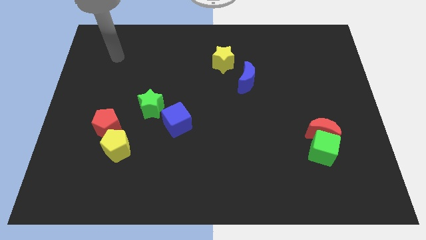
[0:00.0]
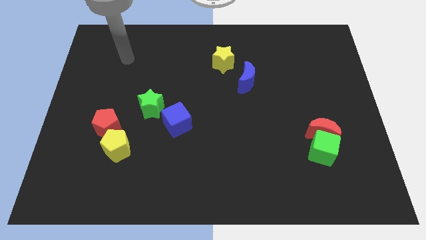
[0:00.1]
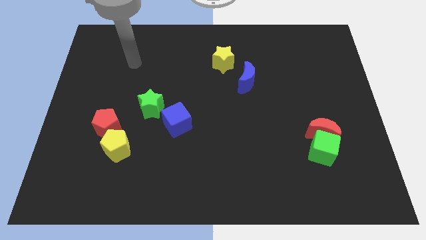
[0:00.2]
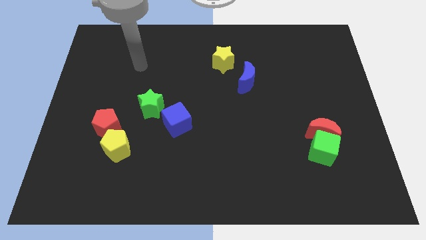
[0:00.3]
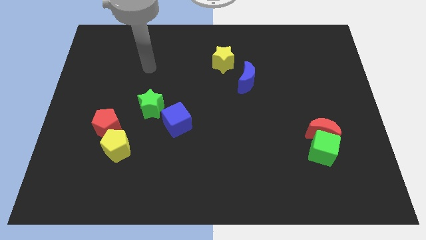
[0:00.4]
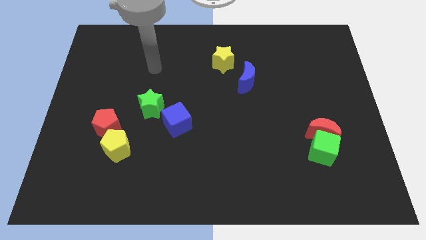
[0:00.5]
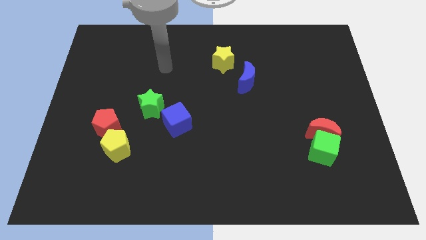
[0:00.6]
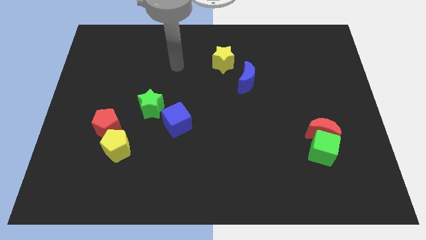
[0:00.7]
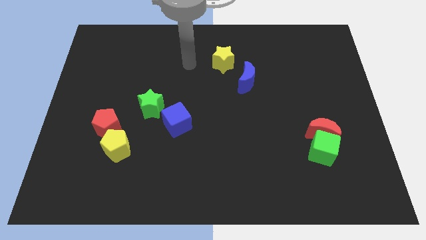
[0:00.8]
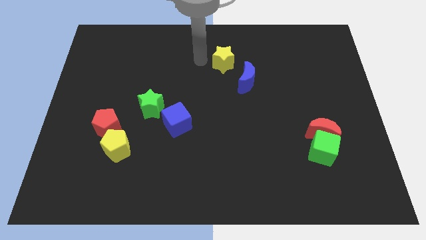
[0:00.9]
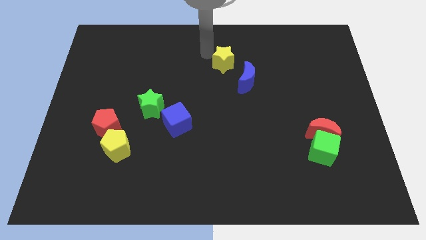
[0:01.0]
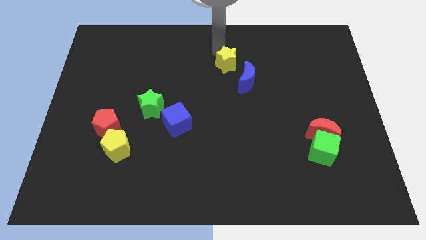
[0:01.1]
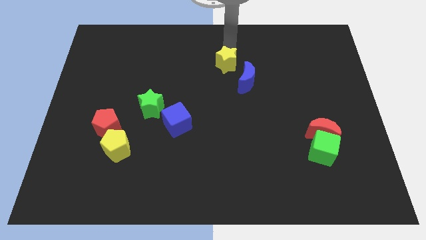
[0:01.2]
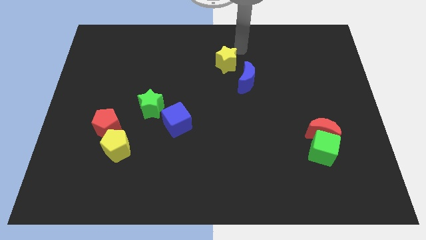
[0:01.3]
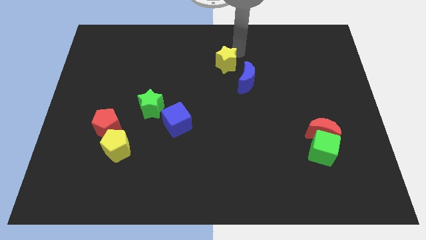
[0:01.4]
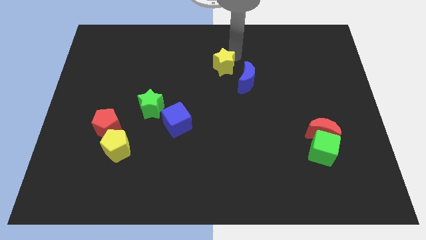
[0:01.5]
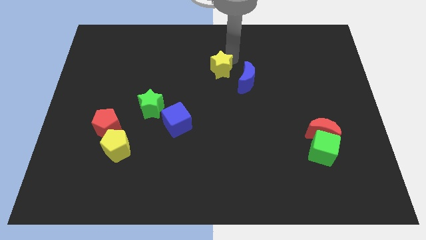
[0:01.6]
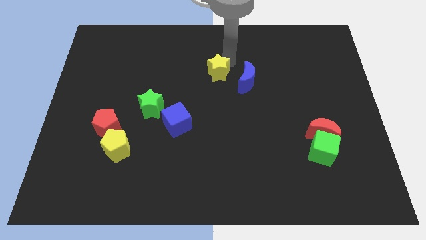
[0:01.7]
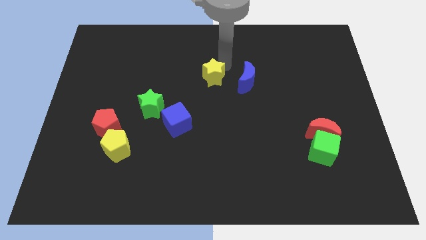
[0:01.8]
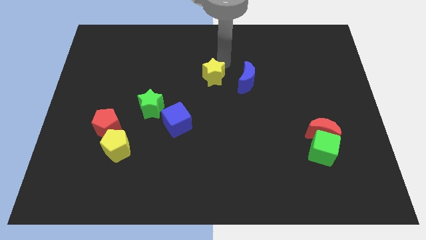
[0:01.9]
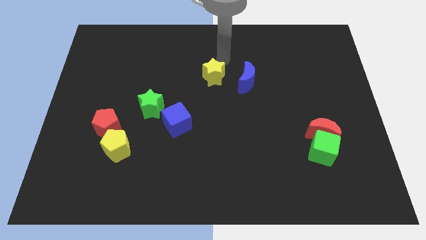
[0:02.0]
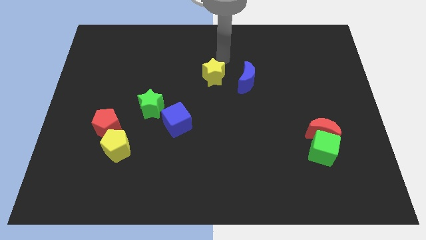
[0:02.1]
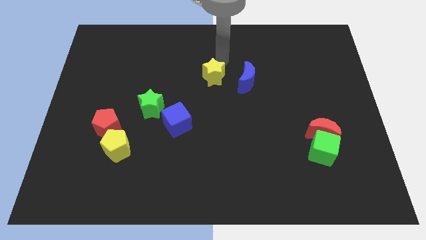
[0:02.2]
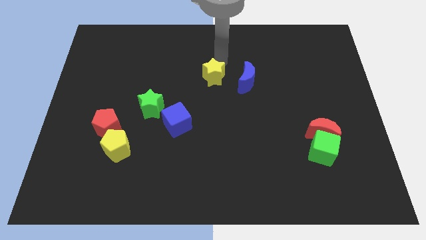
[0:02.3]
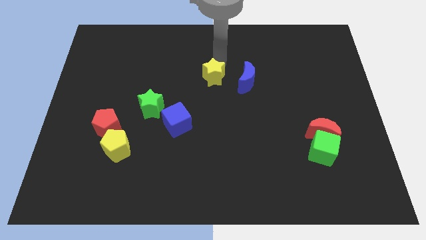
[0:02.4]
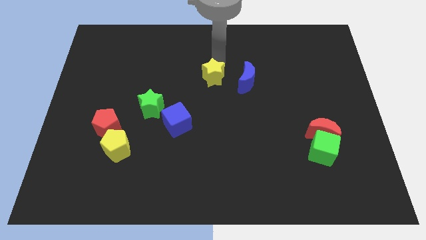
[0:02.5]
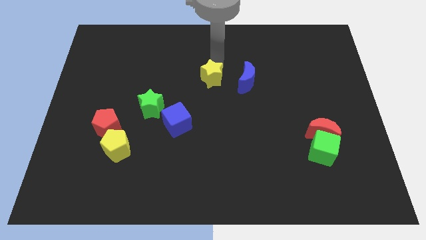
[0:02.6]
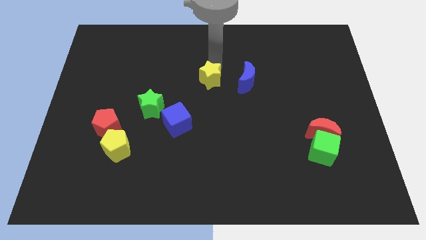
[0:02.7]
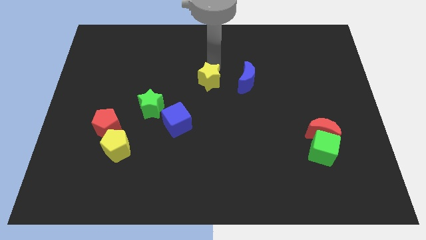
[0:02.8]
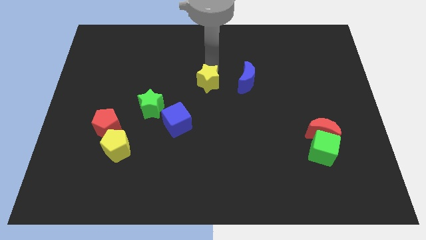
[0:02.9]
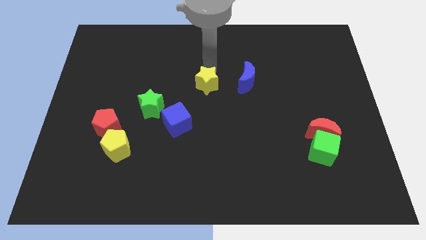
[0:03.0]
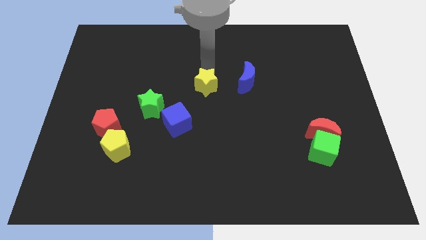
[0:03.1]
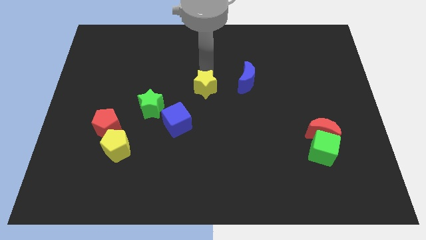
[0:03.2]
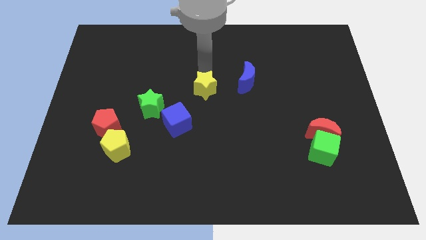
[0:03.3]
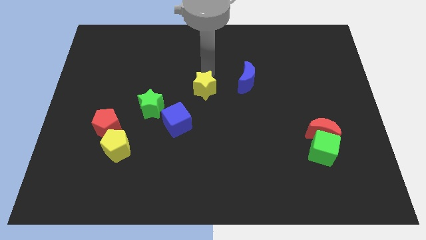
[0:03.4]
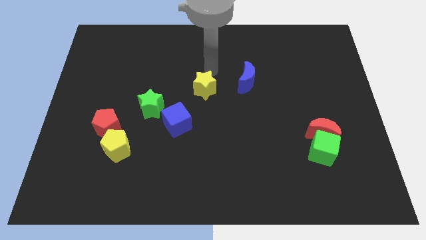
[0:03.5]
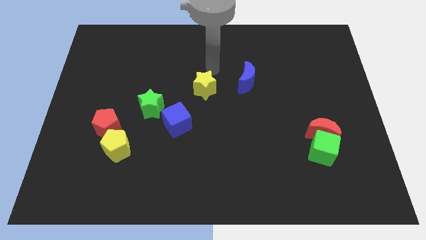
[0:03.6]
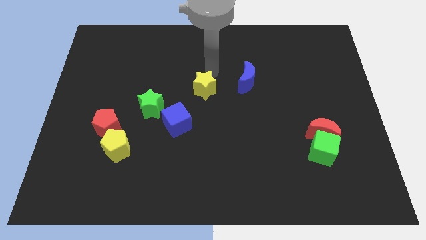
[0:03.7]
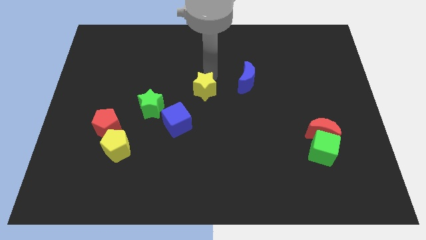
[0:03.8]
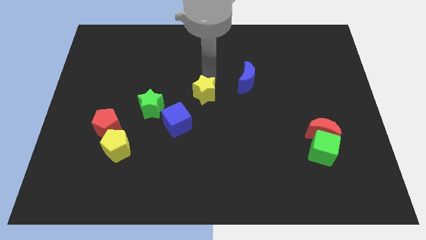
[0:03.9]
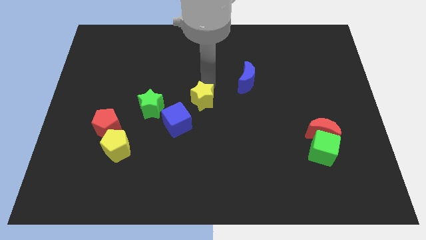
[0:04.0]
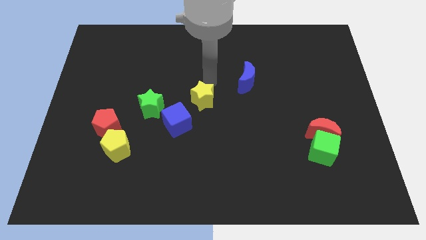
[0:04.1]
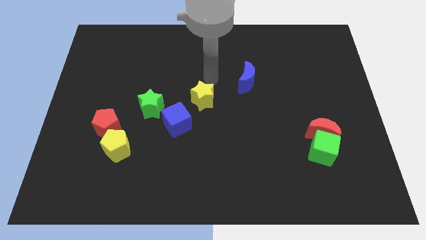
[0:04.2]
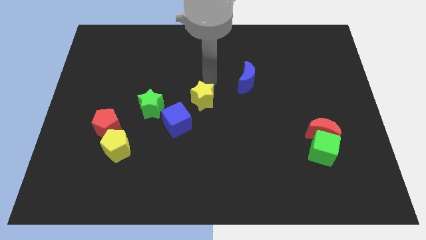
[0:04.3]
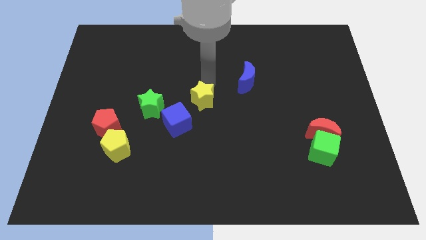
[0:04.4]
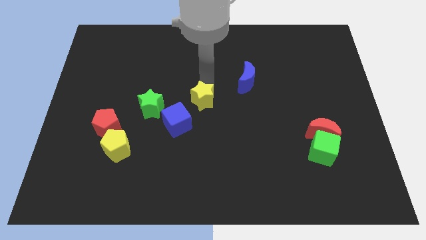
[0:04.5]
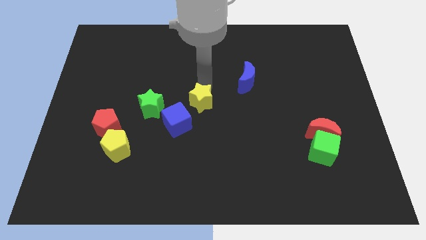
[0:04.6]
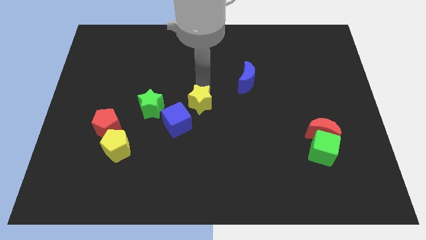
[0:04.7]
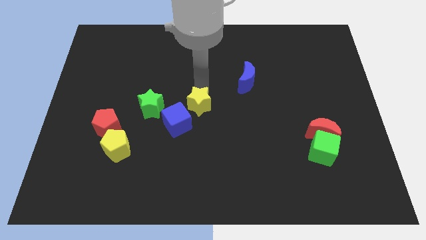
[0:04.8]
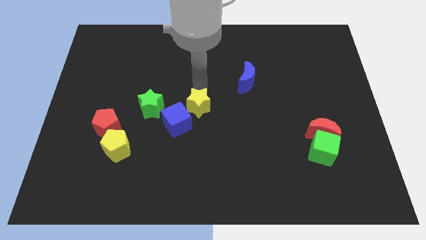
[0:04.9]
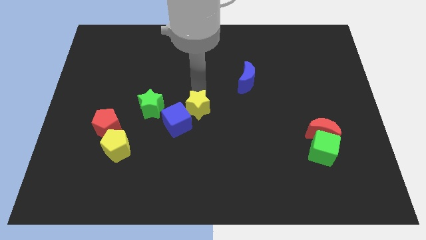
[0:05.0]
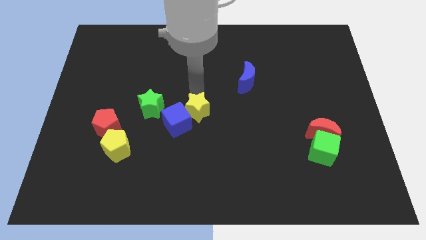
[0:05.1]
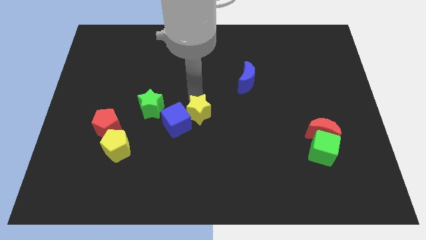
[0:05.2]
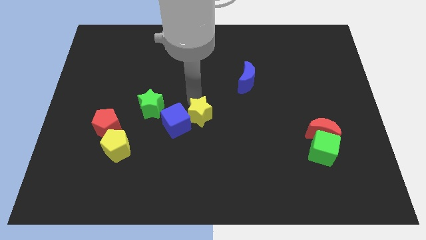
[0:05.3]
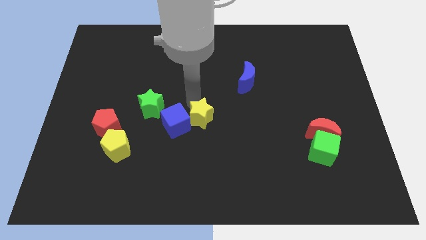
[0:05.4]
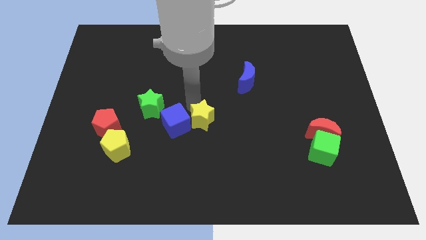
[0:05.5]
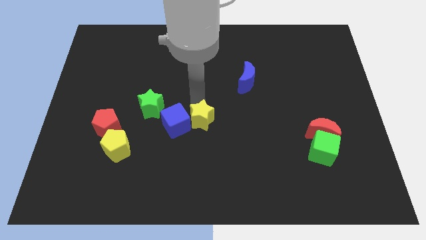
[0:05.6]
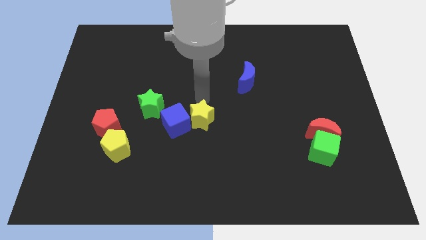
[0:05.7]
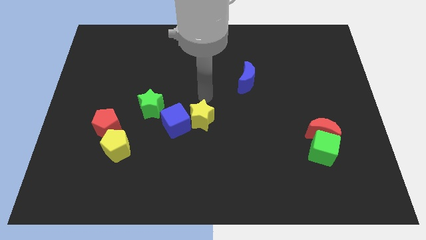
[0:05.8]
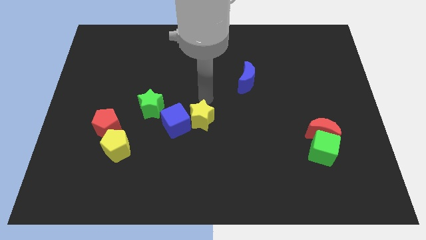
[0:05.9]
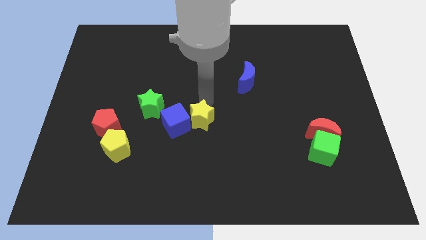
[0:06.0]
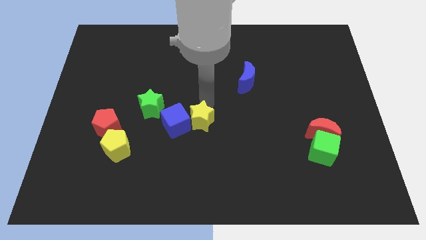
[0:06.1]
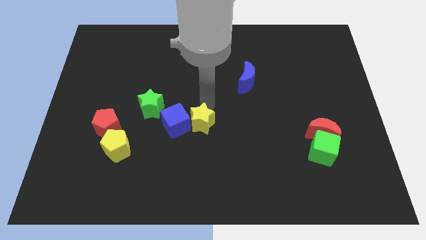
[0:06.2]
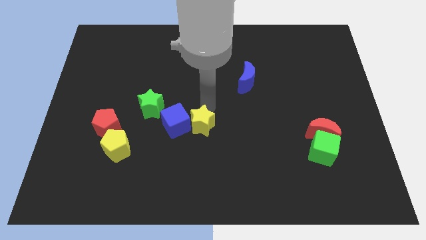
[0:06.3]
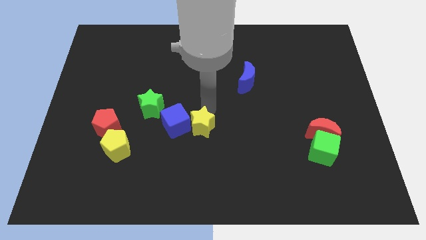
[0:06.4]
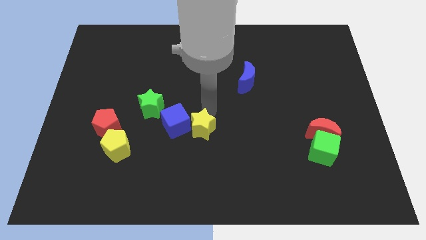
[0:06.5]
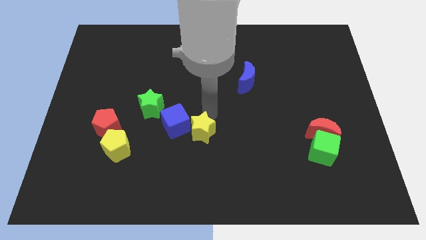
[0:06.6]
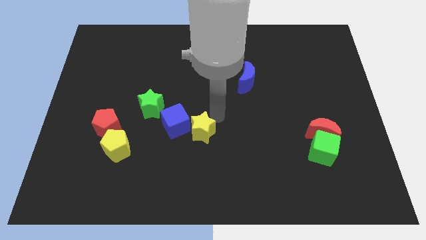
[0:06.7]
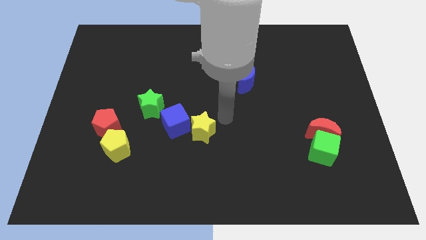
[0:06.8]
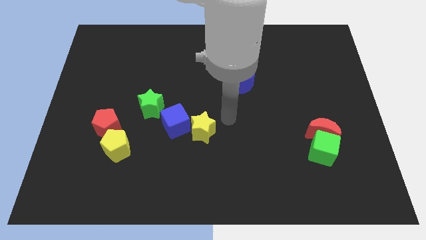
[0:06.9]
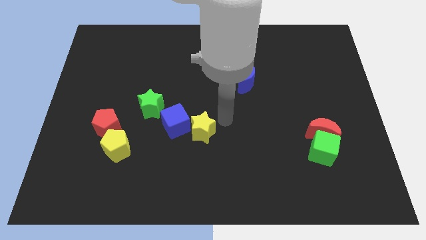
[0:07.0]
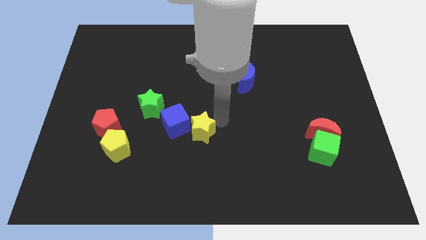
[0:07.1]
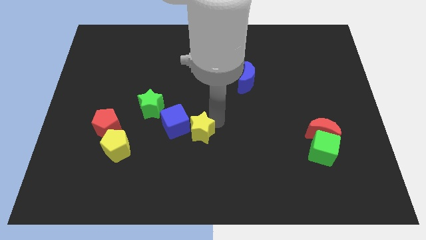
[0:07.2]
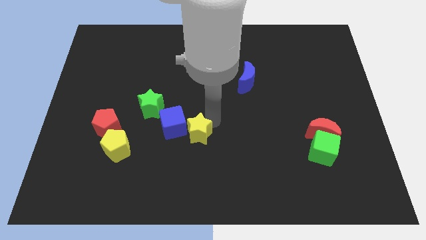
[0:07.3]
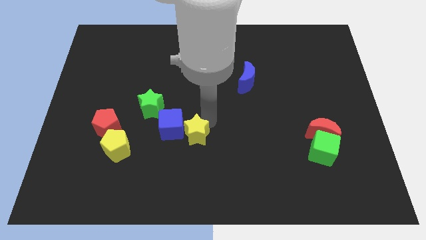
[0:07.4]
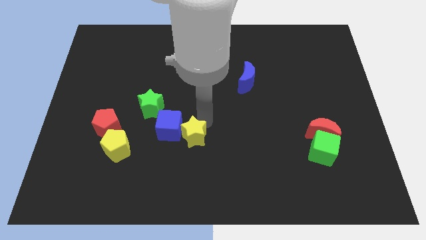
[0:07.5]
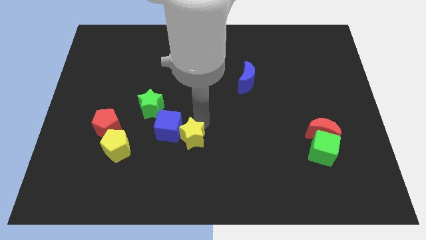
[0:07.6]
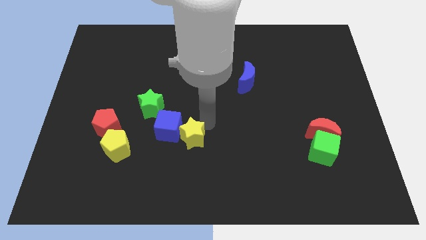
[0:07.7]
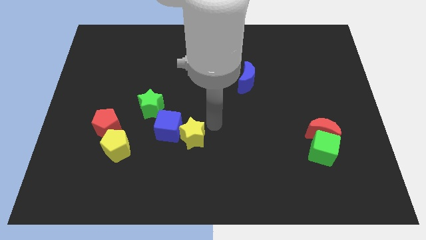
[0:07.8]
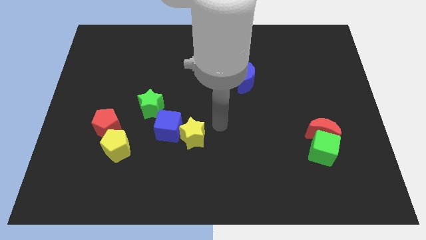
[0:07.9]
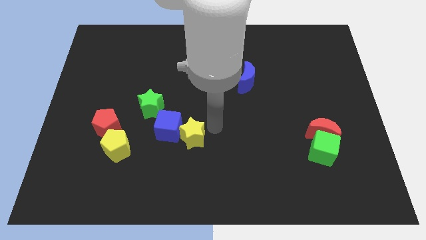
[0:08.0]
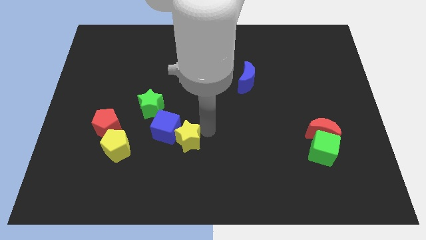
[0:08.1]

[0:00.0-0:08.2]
move the yellow star to the right of the yellow pentagon
